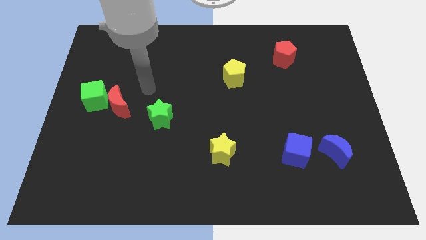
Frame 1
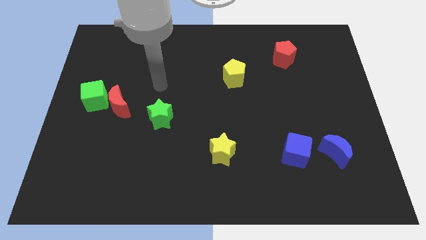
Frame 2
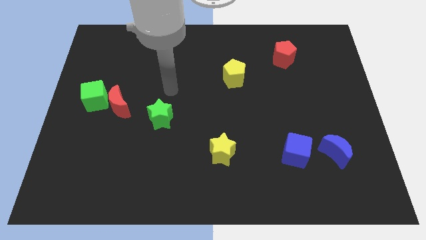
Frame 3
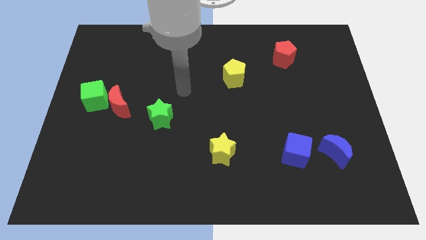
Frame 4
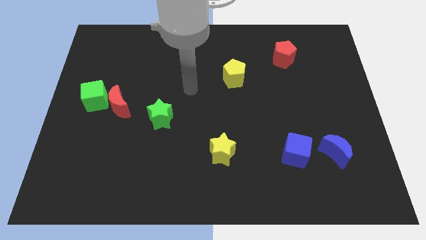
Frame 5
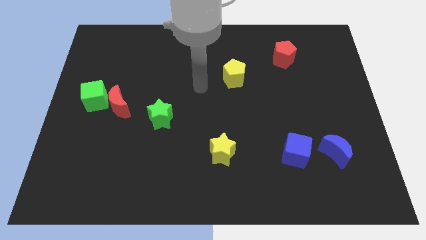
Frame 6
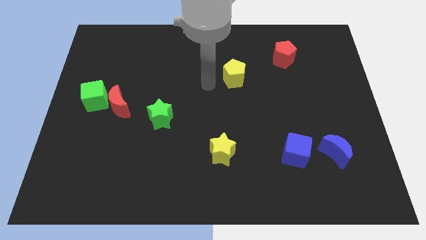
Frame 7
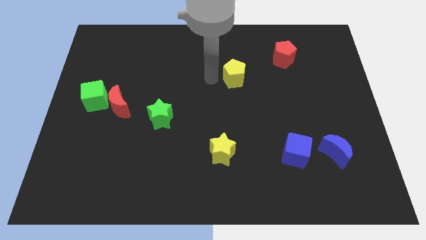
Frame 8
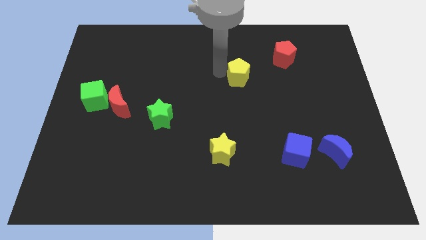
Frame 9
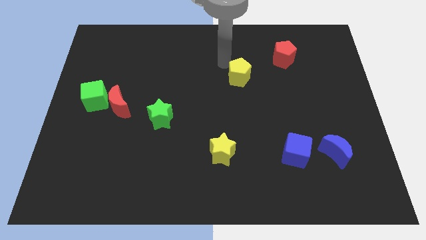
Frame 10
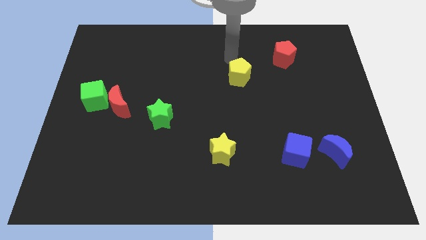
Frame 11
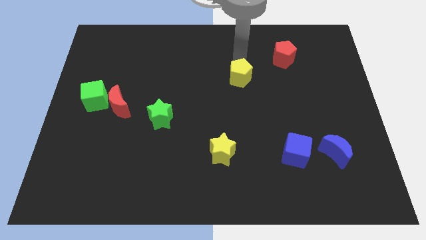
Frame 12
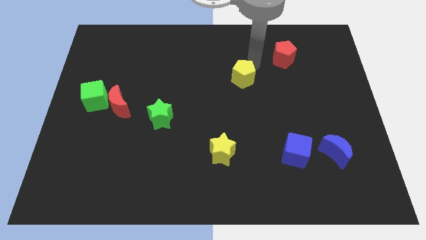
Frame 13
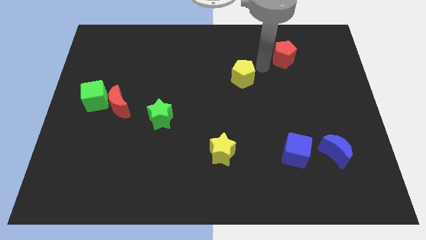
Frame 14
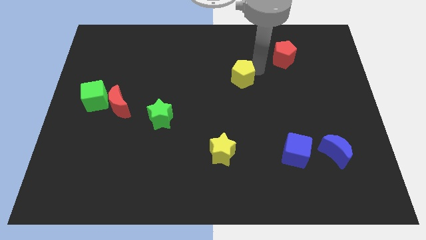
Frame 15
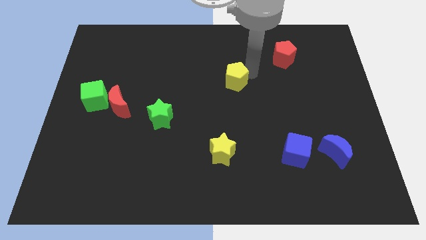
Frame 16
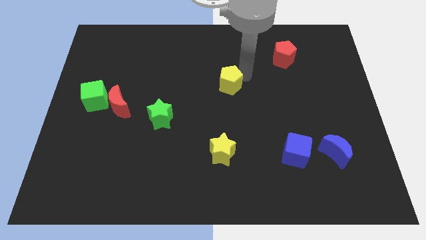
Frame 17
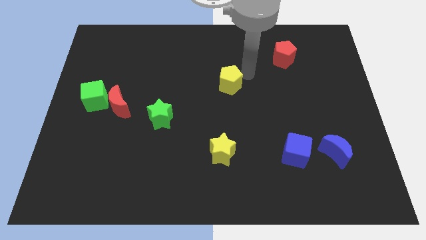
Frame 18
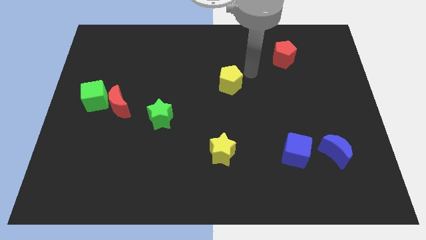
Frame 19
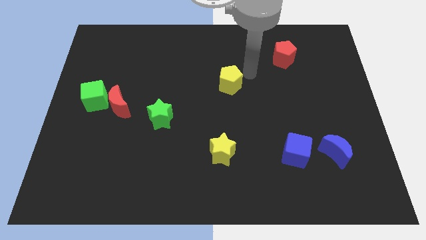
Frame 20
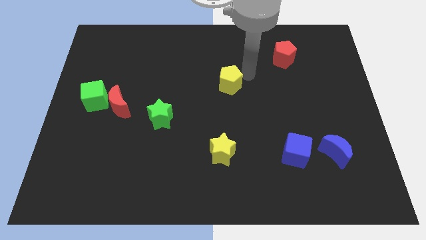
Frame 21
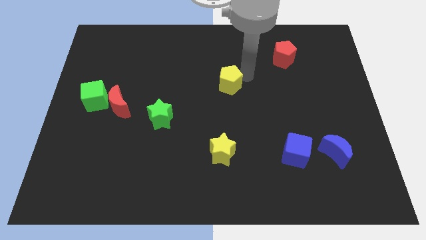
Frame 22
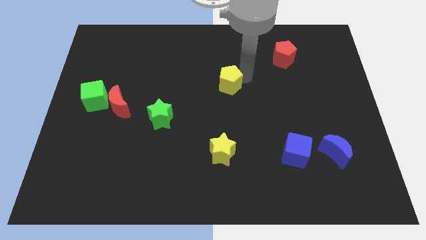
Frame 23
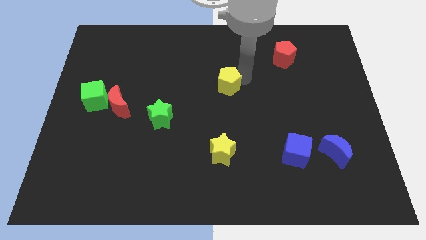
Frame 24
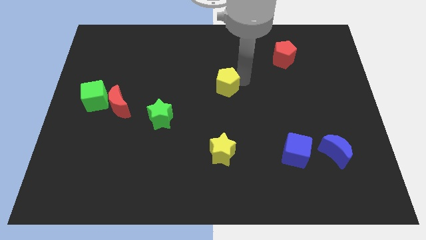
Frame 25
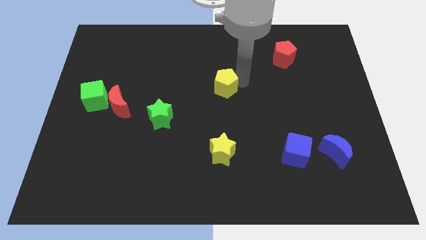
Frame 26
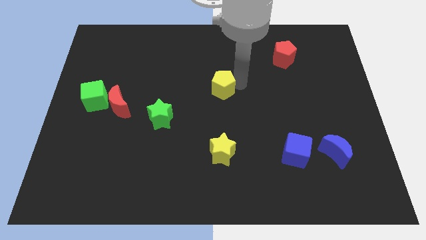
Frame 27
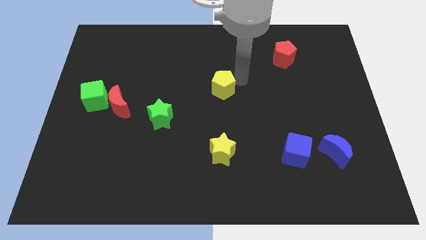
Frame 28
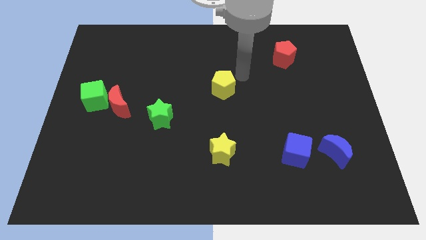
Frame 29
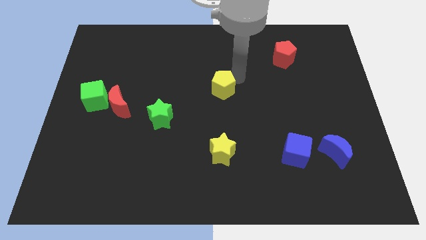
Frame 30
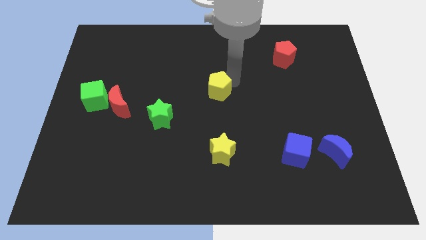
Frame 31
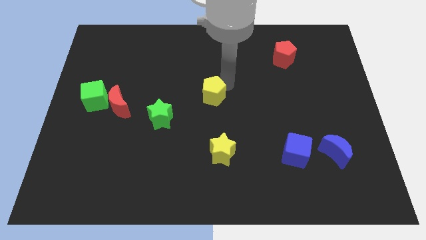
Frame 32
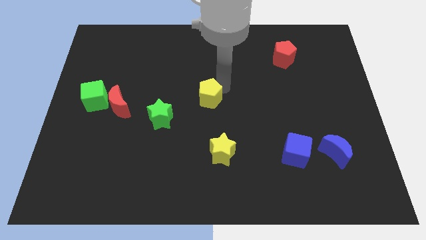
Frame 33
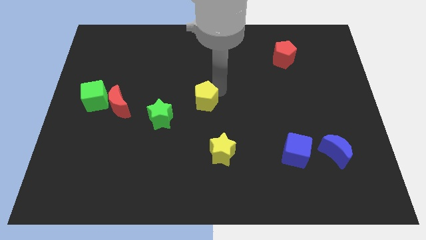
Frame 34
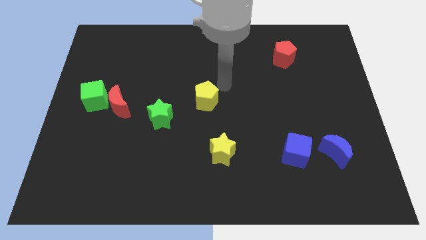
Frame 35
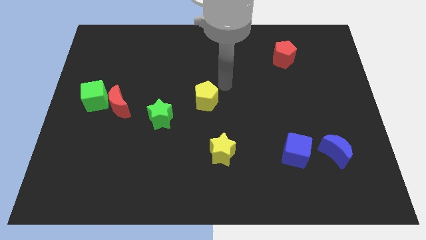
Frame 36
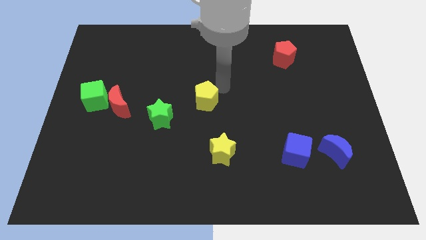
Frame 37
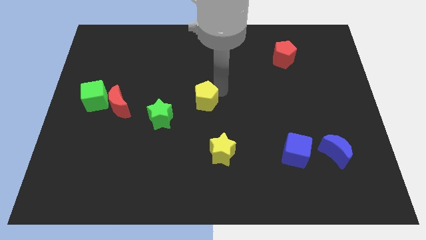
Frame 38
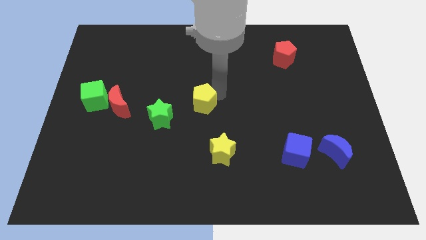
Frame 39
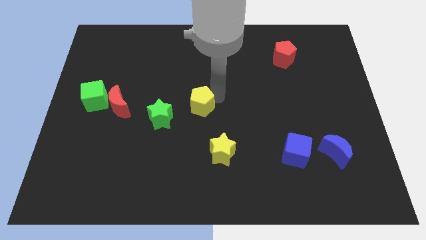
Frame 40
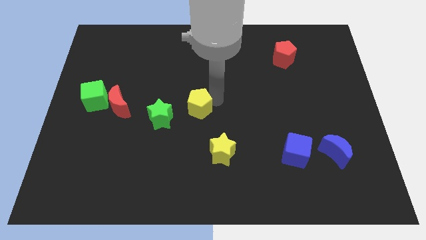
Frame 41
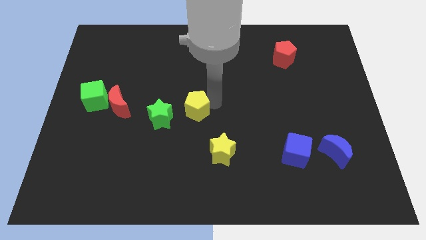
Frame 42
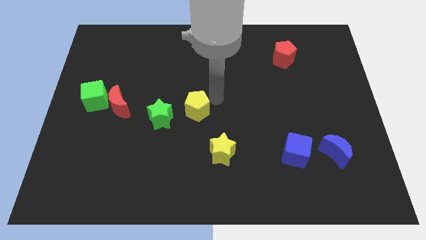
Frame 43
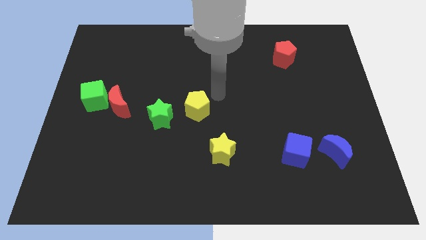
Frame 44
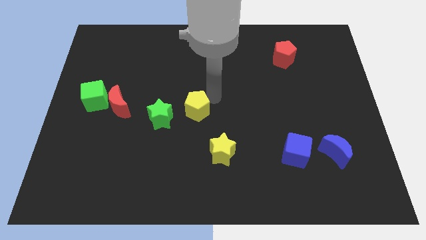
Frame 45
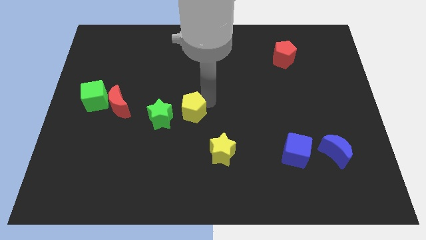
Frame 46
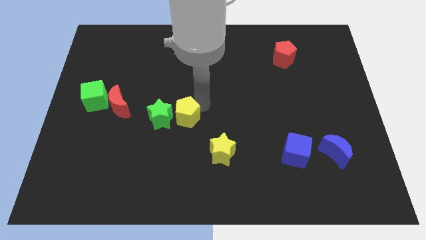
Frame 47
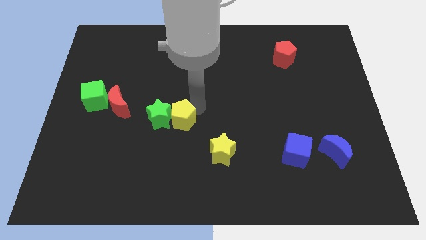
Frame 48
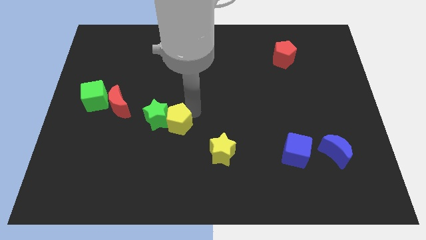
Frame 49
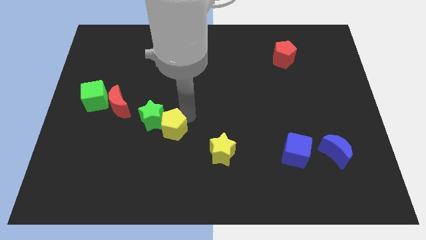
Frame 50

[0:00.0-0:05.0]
move the yellow pentagon diagonally downwards and to the left

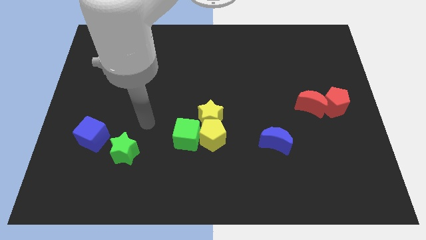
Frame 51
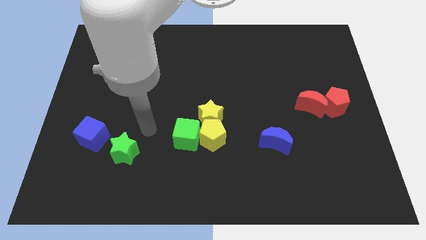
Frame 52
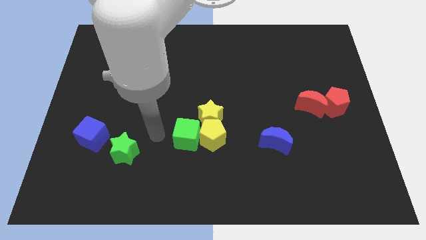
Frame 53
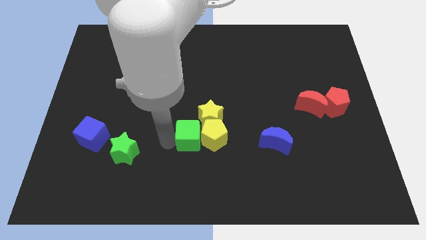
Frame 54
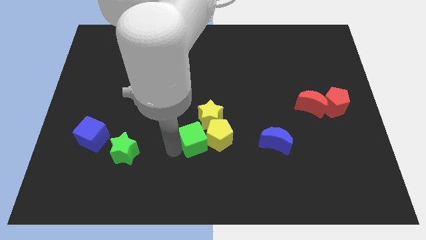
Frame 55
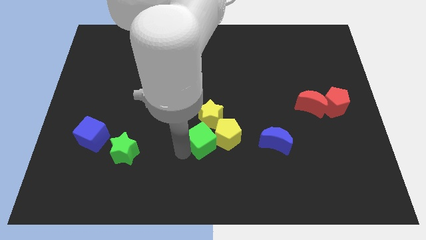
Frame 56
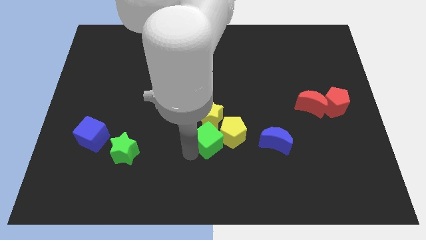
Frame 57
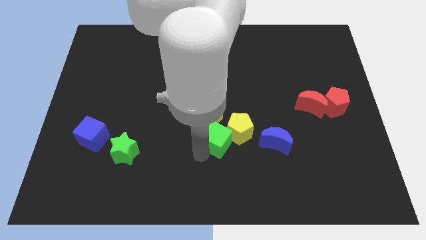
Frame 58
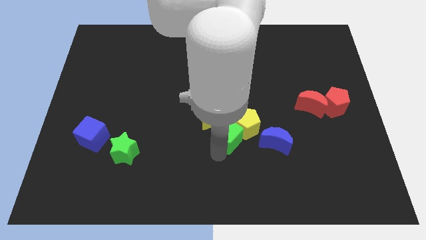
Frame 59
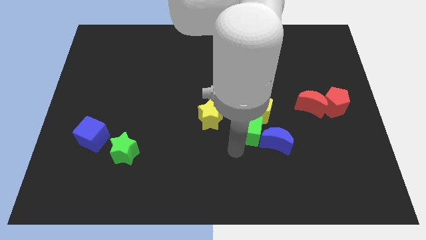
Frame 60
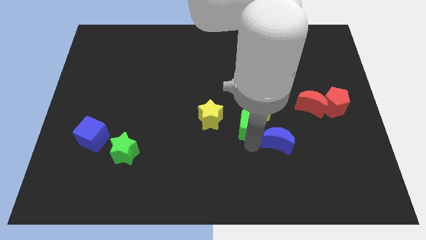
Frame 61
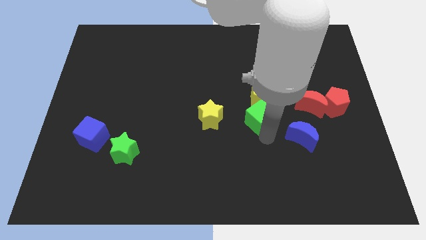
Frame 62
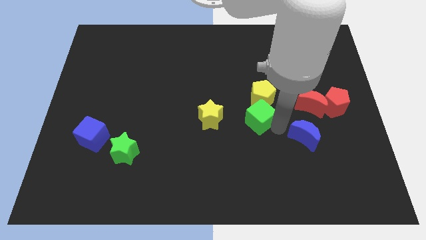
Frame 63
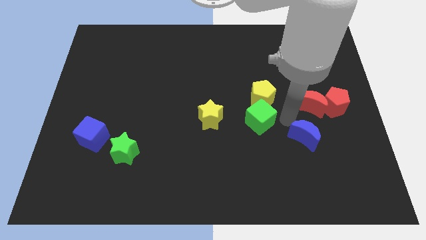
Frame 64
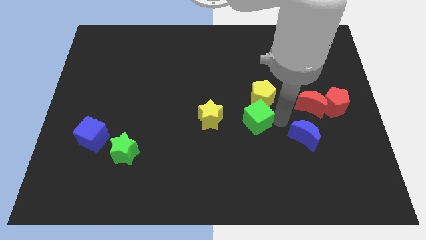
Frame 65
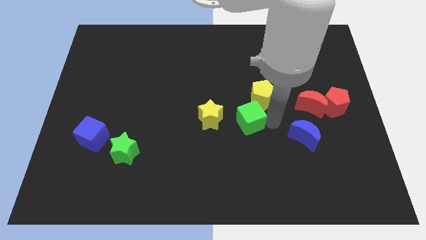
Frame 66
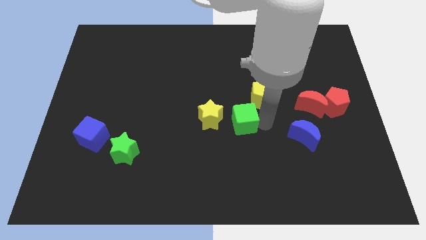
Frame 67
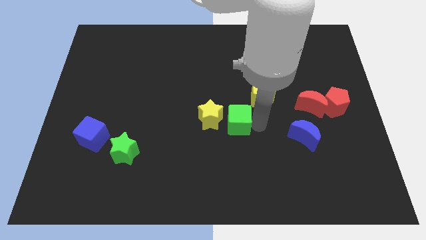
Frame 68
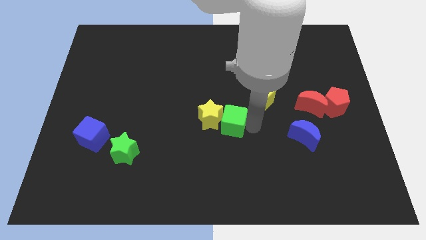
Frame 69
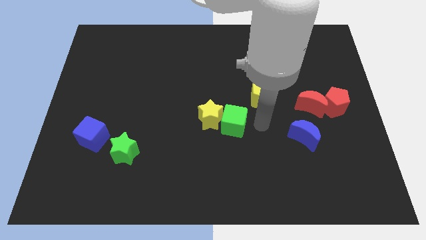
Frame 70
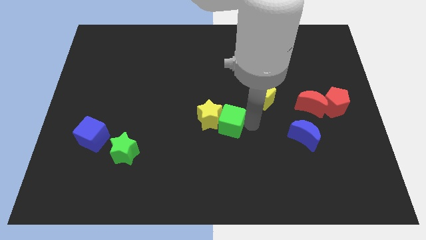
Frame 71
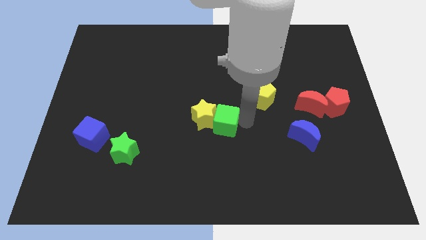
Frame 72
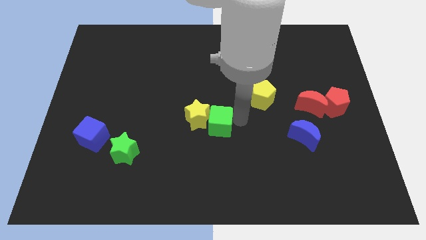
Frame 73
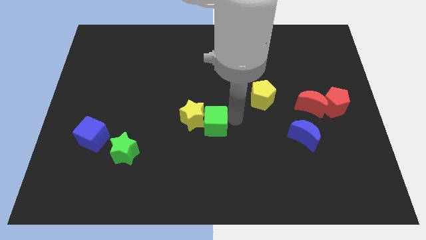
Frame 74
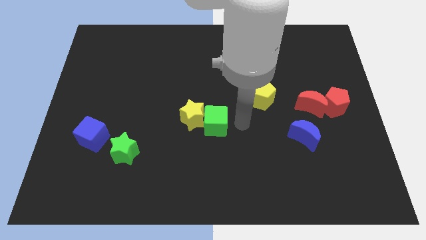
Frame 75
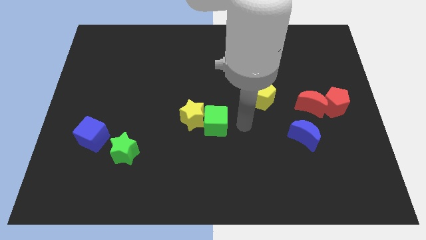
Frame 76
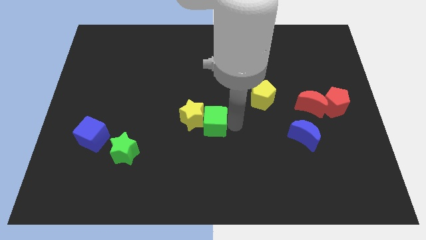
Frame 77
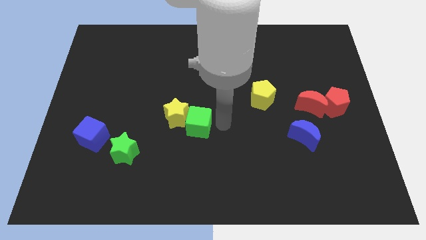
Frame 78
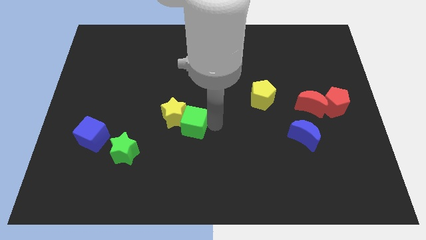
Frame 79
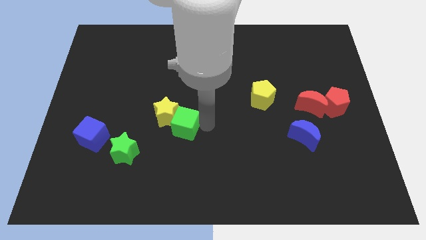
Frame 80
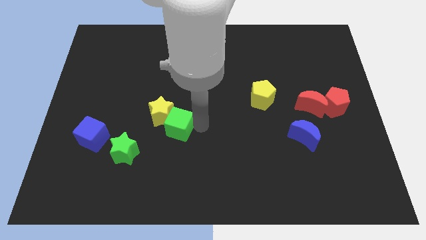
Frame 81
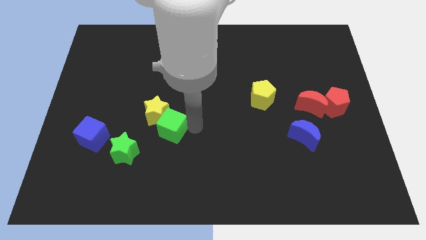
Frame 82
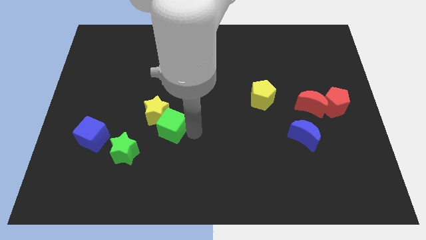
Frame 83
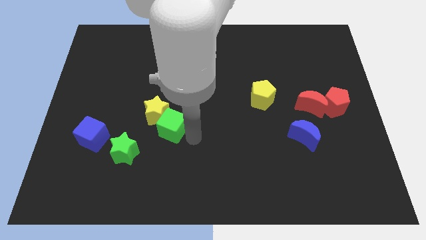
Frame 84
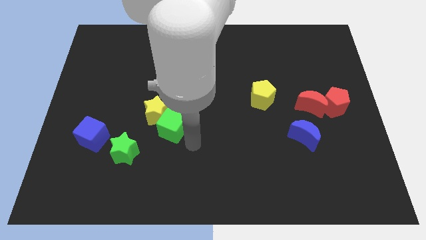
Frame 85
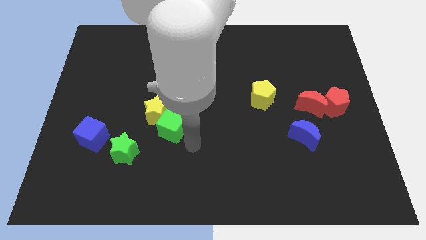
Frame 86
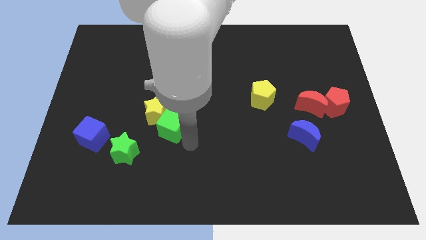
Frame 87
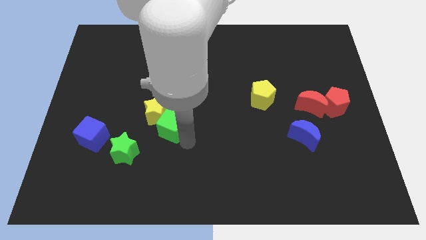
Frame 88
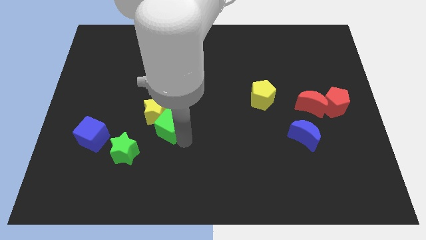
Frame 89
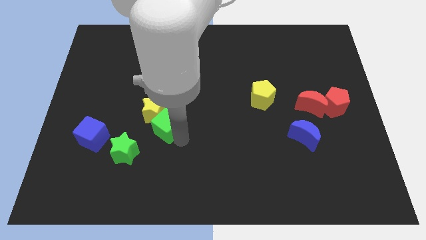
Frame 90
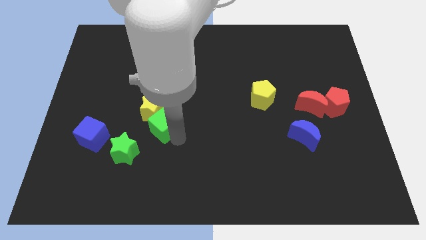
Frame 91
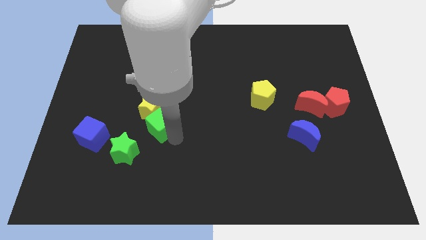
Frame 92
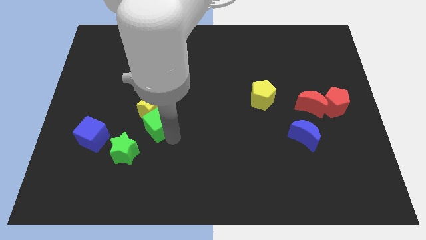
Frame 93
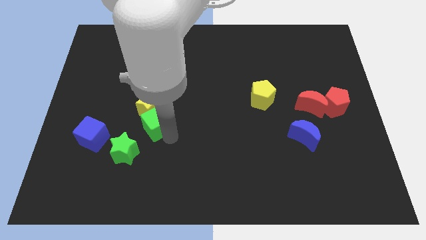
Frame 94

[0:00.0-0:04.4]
move the green cube upwards and then left slightly
